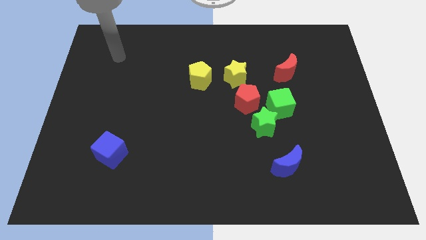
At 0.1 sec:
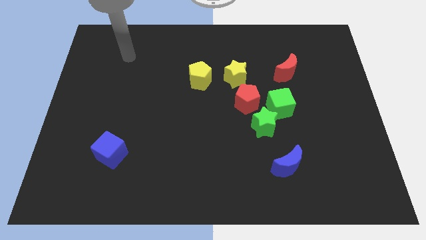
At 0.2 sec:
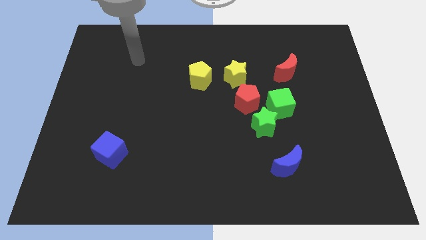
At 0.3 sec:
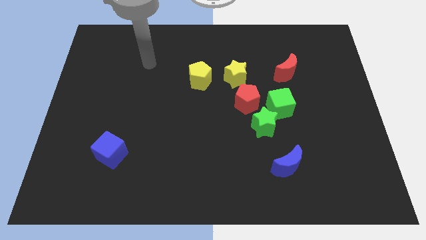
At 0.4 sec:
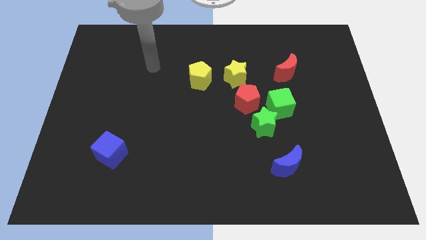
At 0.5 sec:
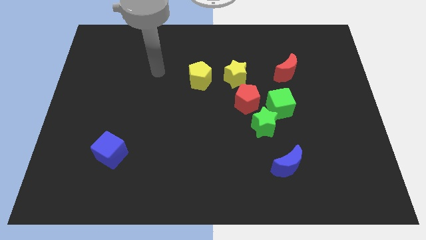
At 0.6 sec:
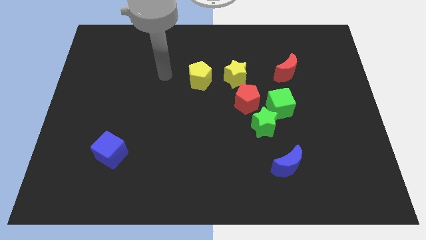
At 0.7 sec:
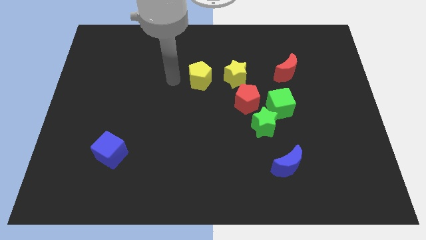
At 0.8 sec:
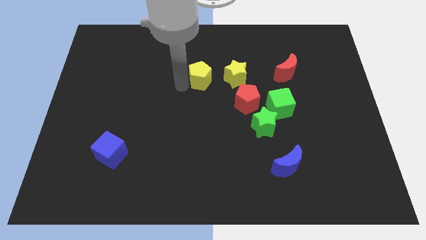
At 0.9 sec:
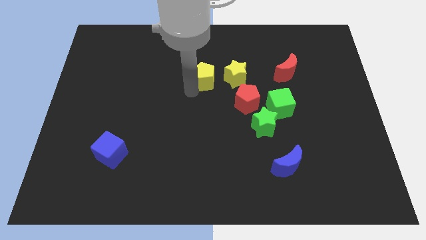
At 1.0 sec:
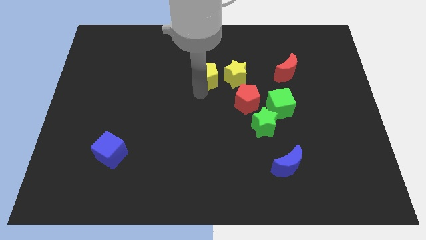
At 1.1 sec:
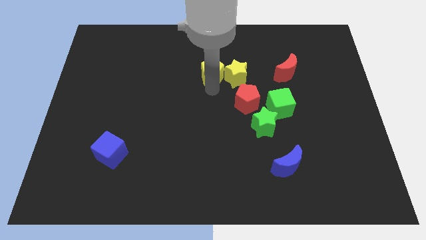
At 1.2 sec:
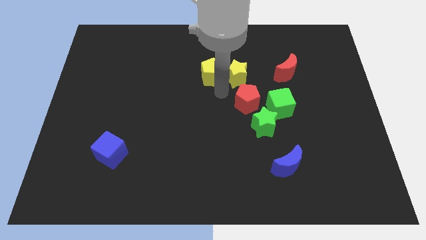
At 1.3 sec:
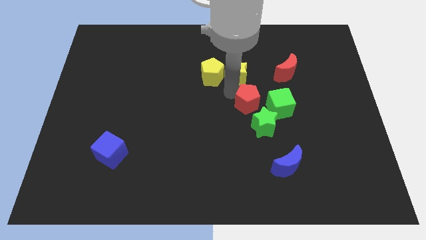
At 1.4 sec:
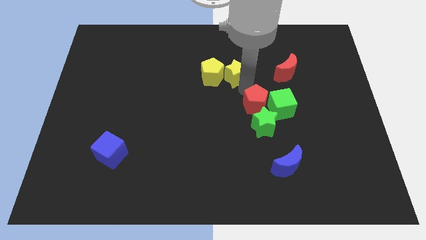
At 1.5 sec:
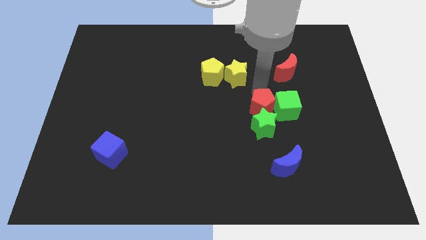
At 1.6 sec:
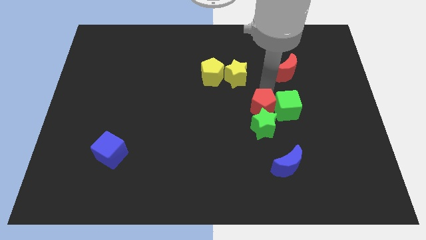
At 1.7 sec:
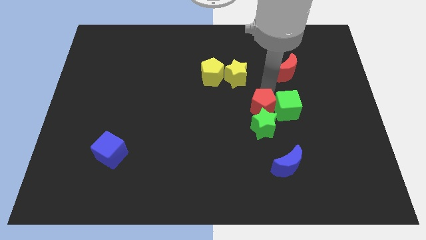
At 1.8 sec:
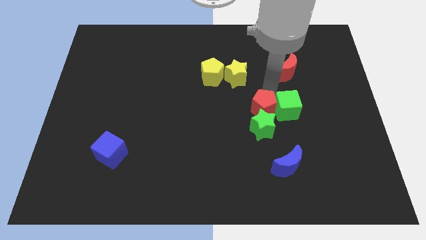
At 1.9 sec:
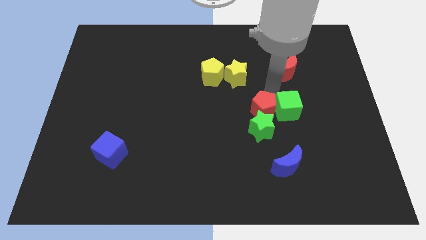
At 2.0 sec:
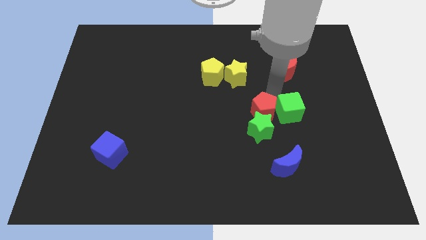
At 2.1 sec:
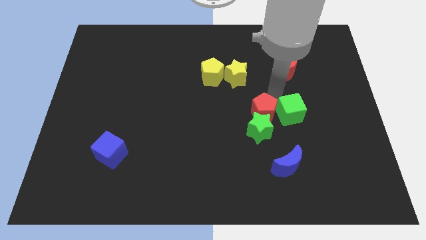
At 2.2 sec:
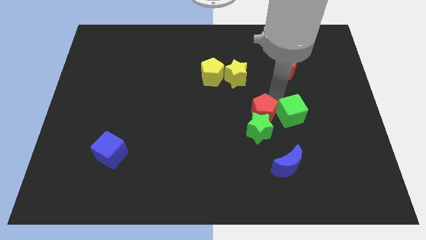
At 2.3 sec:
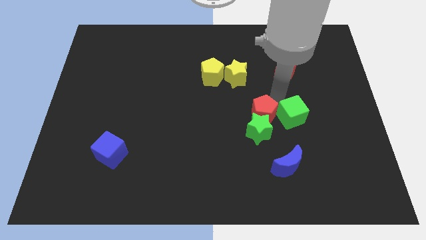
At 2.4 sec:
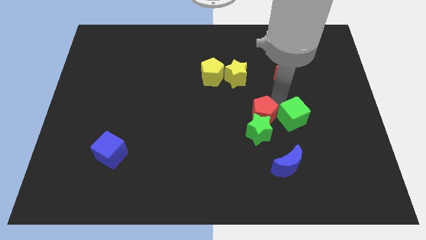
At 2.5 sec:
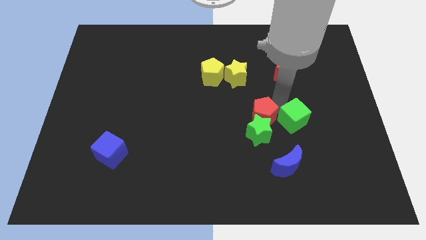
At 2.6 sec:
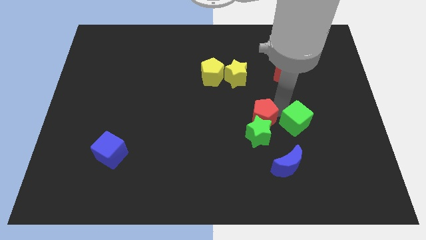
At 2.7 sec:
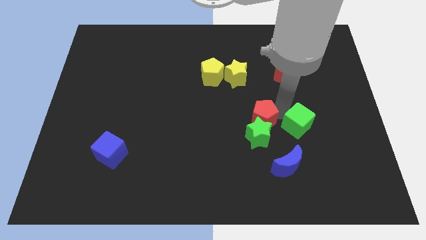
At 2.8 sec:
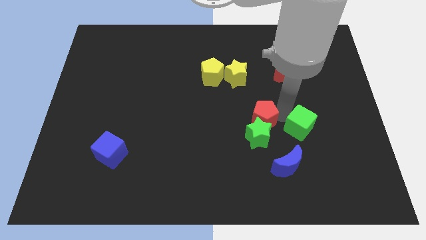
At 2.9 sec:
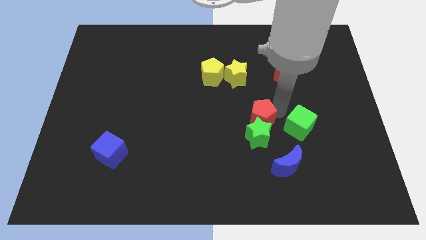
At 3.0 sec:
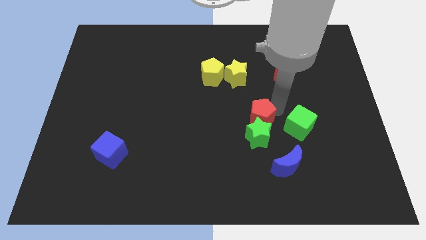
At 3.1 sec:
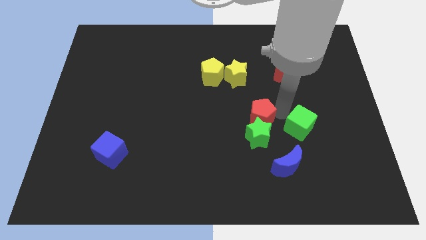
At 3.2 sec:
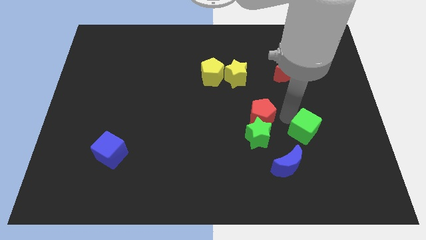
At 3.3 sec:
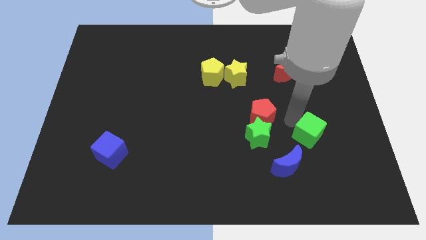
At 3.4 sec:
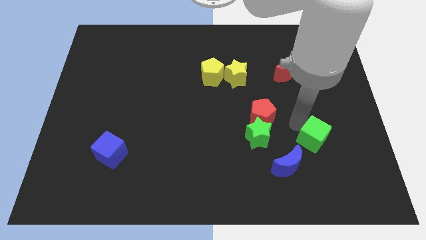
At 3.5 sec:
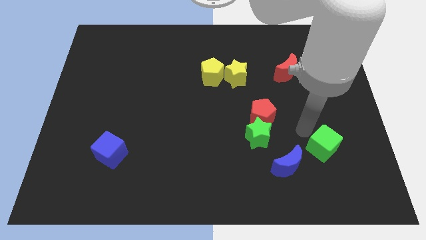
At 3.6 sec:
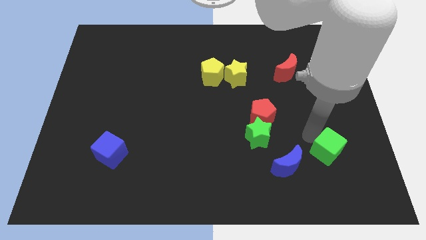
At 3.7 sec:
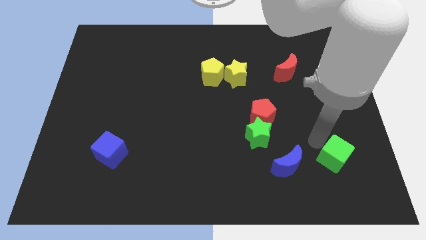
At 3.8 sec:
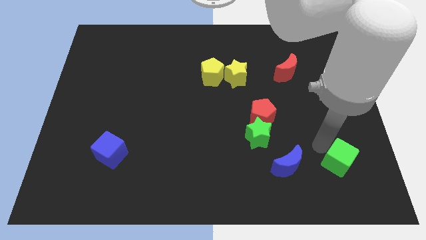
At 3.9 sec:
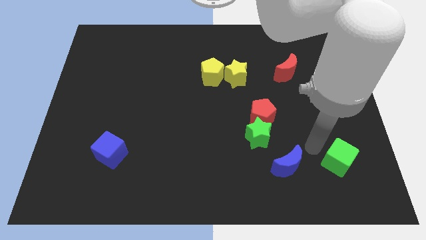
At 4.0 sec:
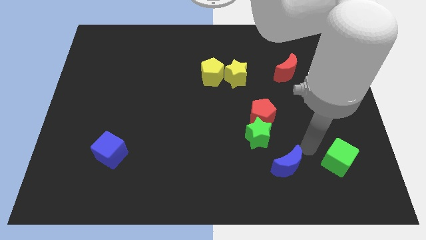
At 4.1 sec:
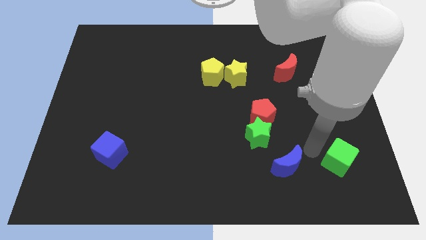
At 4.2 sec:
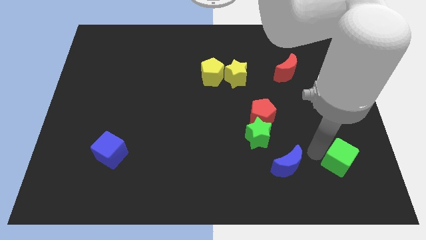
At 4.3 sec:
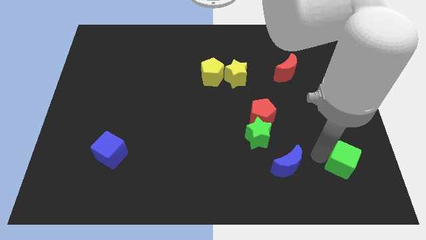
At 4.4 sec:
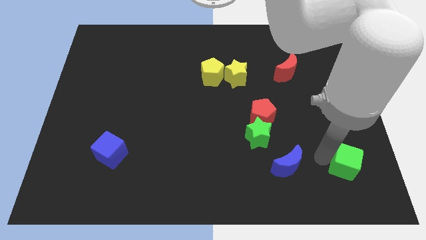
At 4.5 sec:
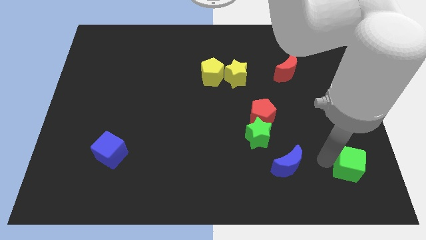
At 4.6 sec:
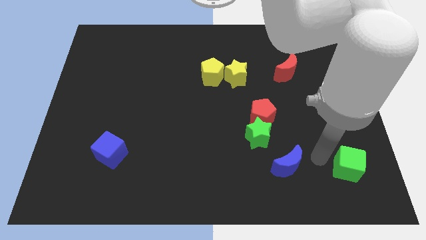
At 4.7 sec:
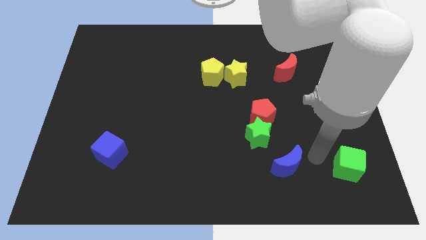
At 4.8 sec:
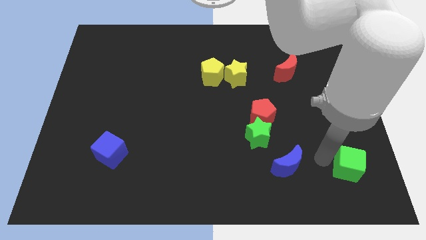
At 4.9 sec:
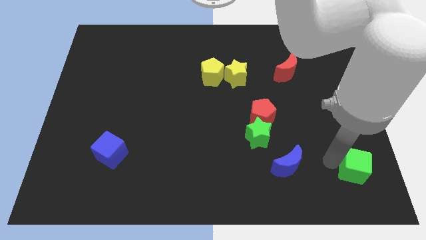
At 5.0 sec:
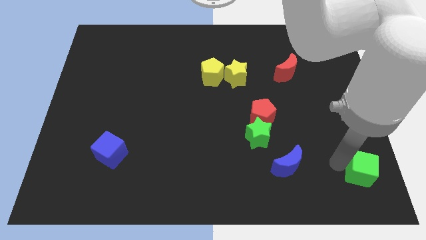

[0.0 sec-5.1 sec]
push the green cube to the bottom right corner

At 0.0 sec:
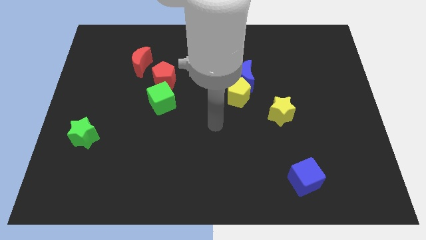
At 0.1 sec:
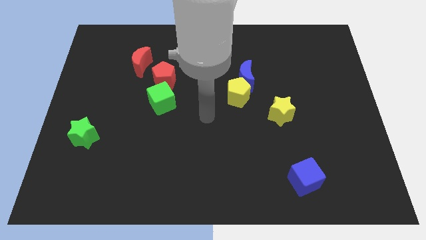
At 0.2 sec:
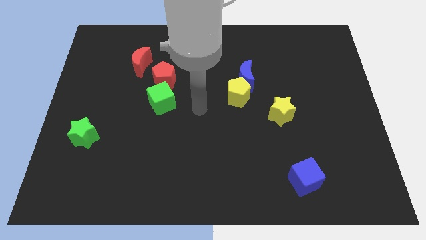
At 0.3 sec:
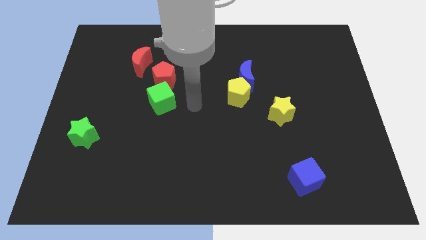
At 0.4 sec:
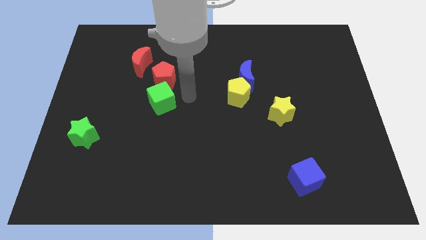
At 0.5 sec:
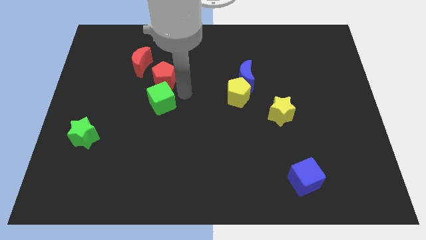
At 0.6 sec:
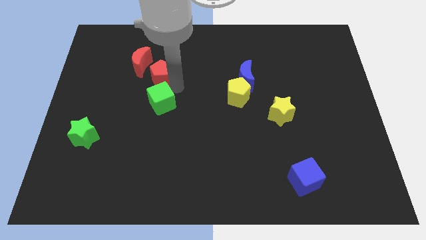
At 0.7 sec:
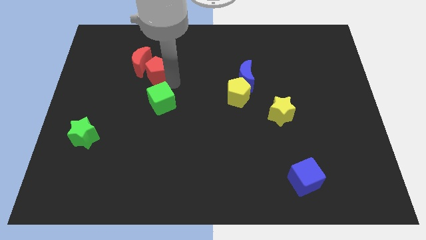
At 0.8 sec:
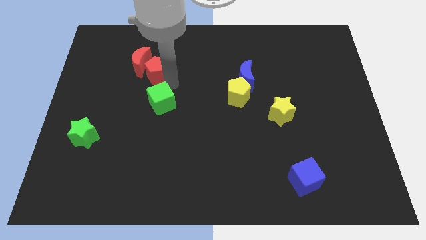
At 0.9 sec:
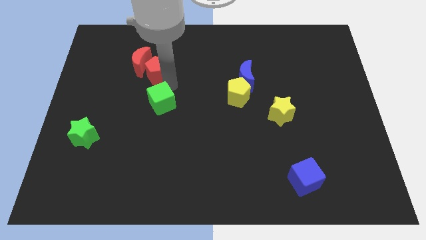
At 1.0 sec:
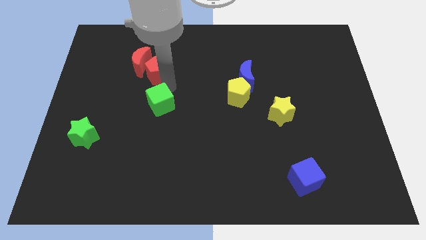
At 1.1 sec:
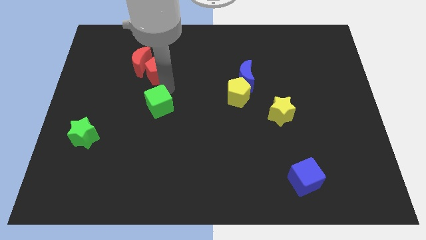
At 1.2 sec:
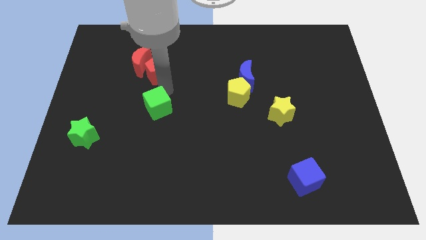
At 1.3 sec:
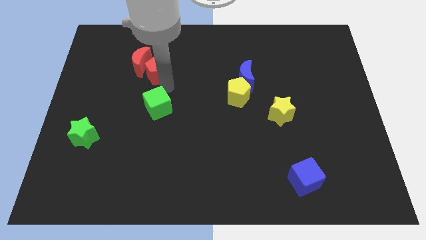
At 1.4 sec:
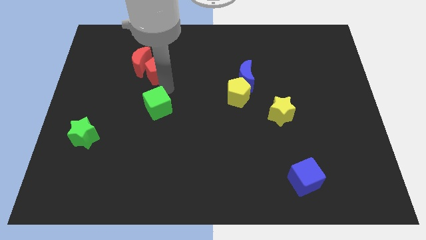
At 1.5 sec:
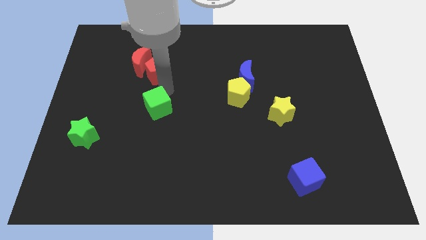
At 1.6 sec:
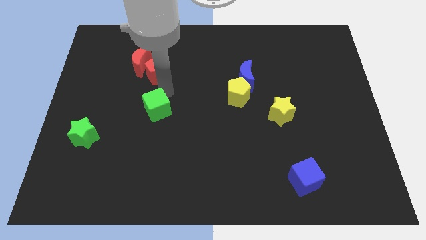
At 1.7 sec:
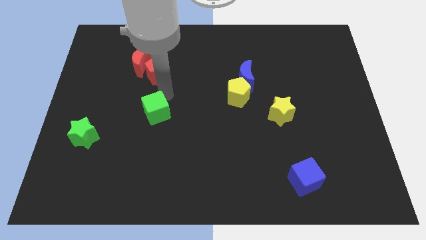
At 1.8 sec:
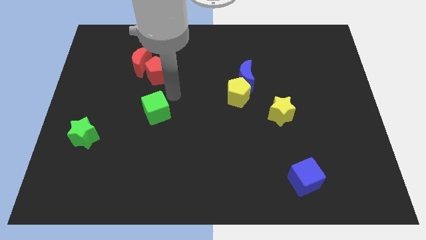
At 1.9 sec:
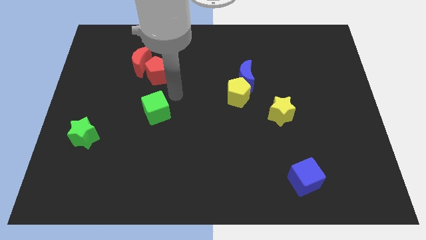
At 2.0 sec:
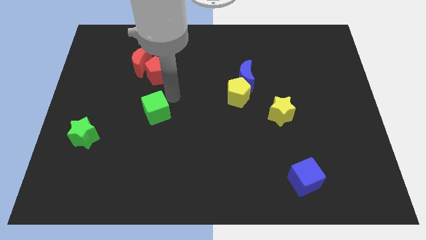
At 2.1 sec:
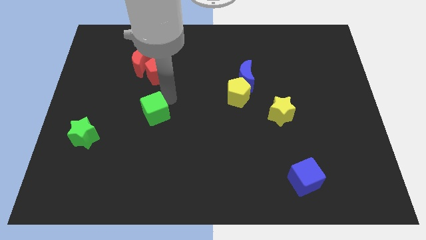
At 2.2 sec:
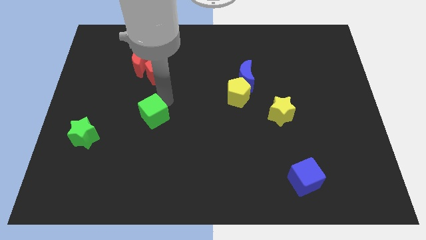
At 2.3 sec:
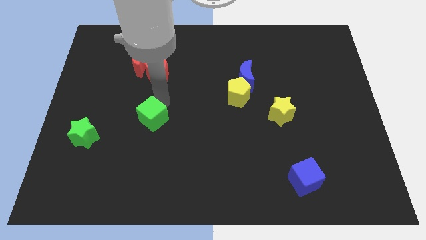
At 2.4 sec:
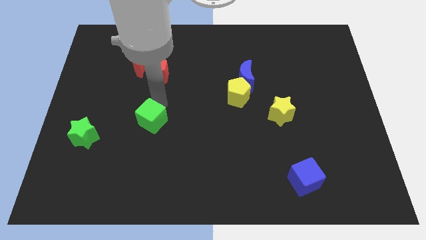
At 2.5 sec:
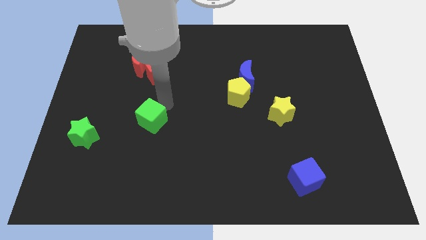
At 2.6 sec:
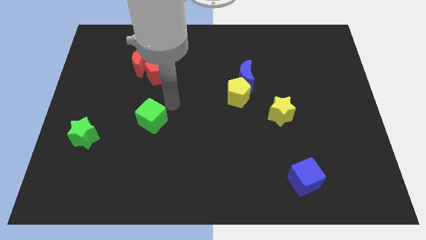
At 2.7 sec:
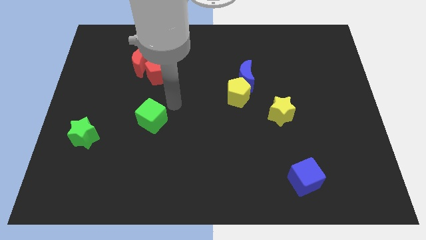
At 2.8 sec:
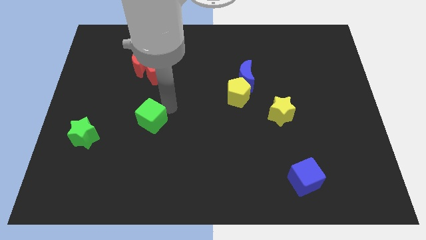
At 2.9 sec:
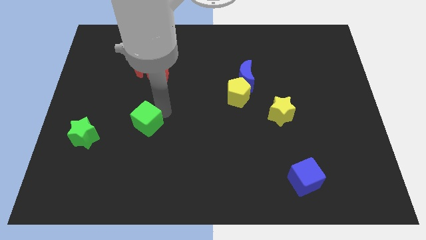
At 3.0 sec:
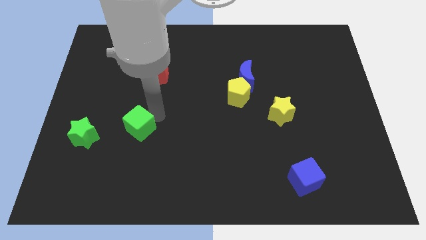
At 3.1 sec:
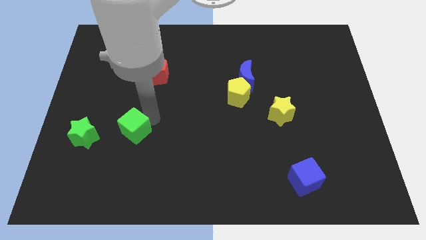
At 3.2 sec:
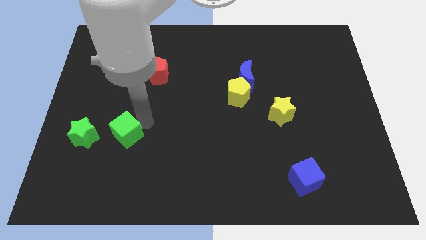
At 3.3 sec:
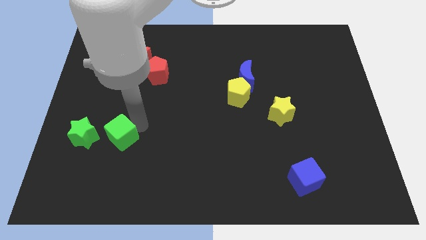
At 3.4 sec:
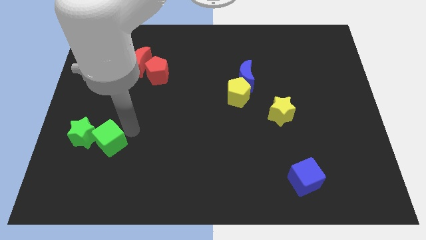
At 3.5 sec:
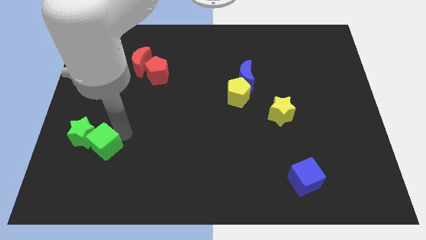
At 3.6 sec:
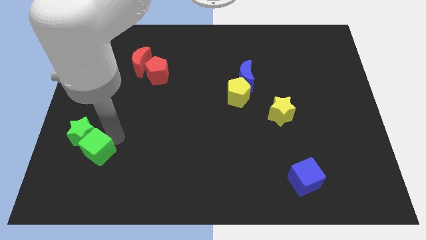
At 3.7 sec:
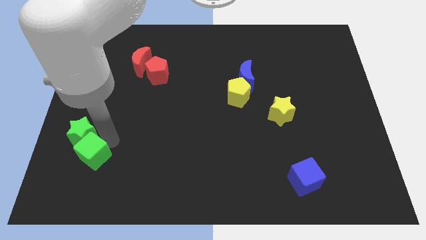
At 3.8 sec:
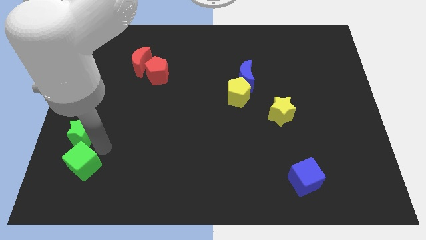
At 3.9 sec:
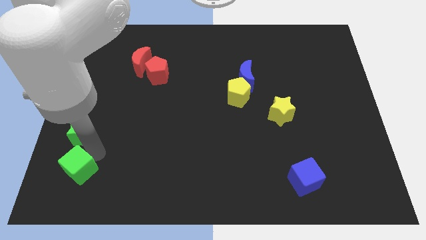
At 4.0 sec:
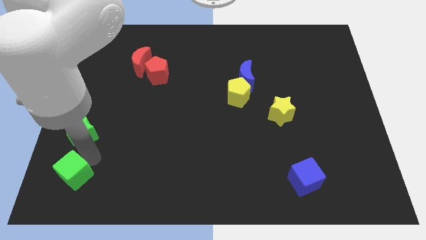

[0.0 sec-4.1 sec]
move the green cube to the lower left corner

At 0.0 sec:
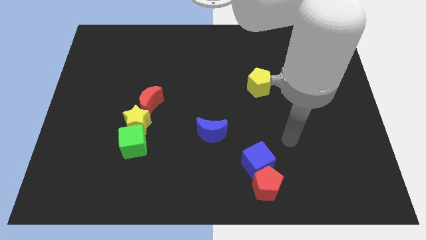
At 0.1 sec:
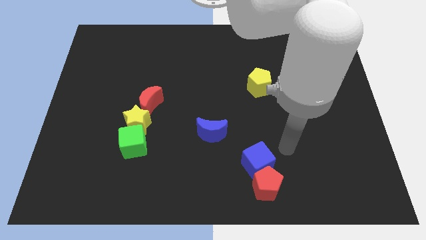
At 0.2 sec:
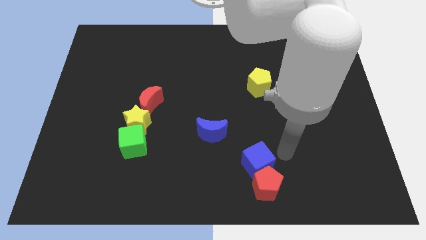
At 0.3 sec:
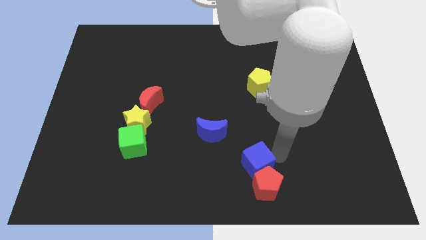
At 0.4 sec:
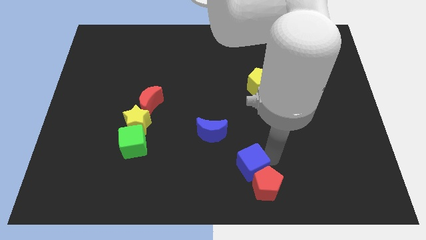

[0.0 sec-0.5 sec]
put the blue cube to the bottom
